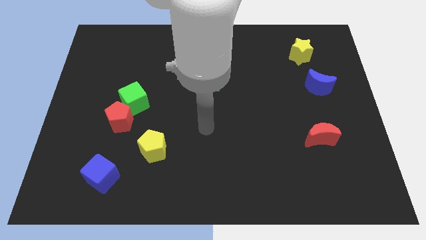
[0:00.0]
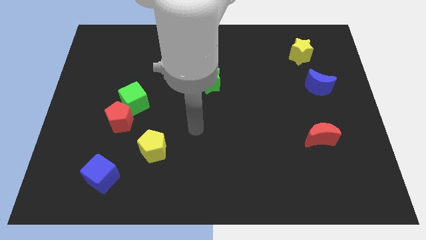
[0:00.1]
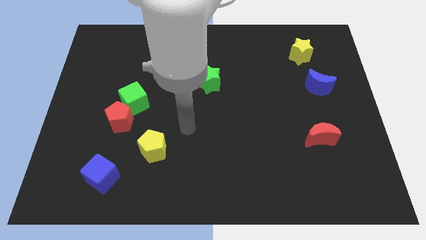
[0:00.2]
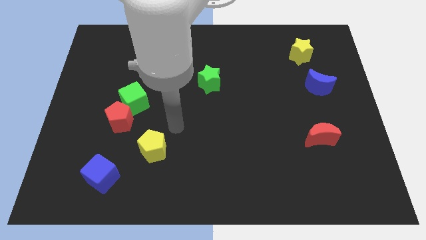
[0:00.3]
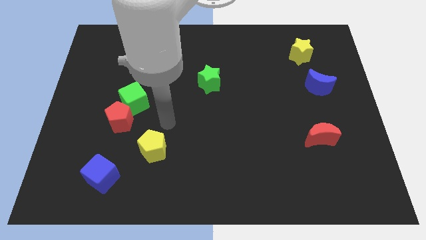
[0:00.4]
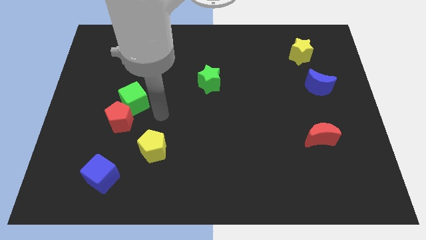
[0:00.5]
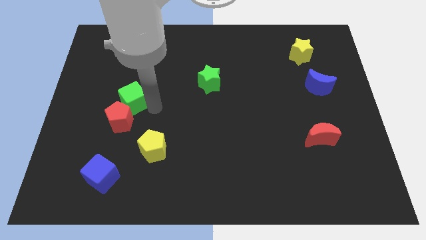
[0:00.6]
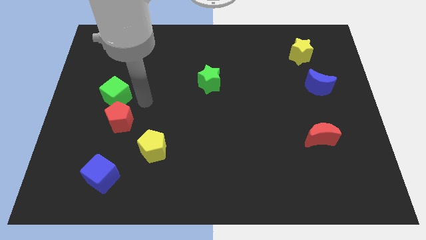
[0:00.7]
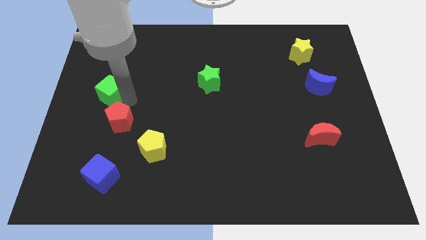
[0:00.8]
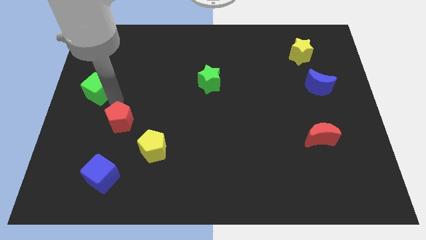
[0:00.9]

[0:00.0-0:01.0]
pull the red pentagon apart from the green cube

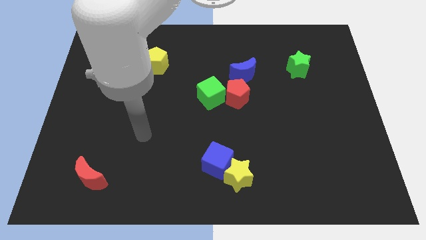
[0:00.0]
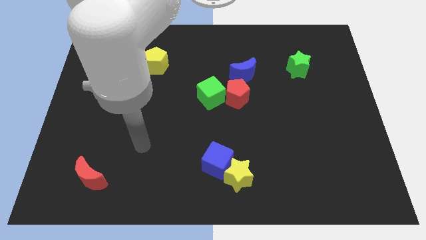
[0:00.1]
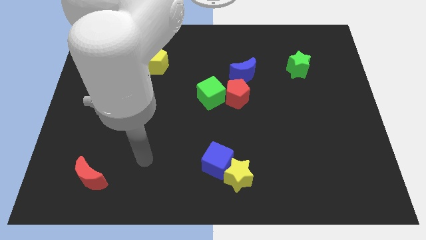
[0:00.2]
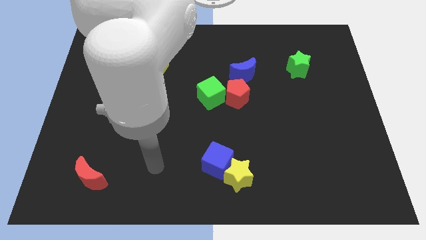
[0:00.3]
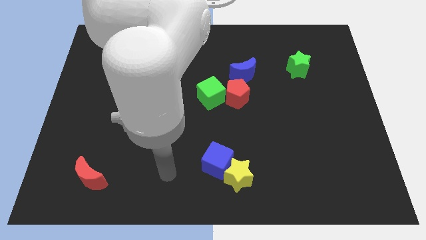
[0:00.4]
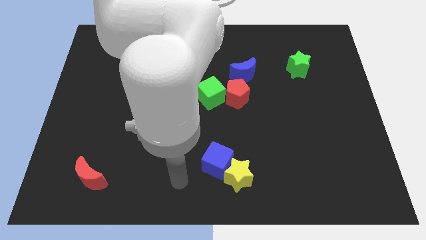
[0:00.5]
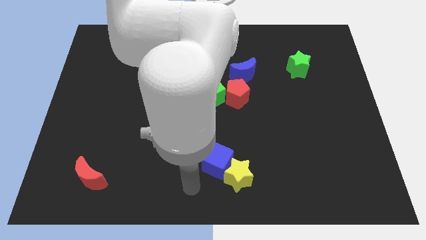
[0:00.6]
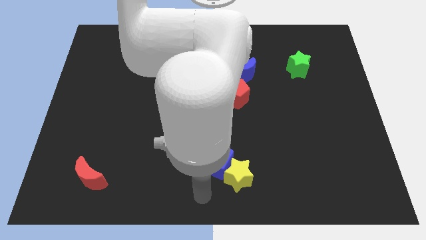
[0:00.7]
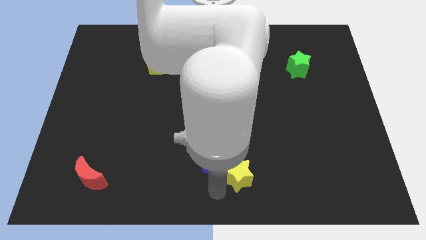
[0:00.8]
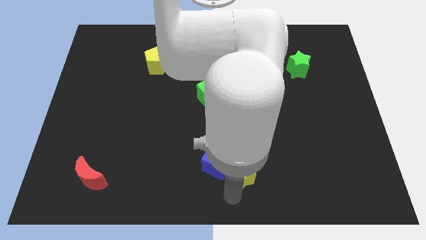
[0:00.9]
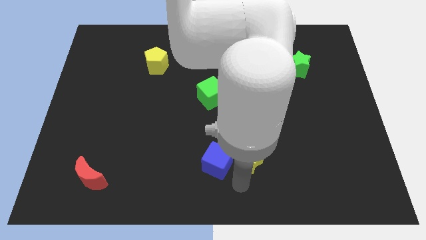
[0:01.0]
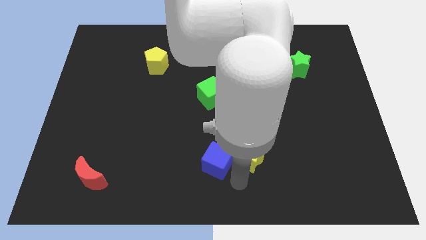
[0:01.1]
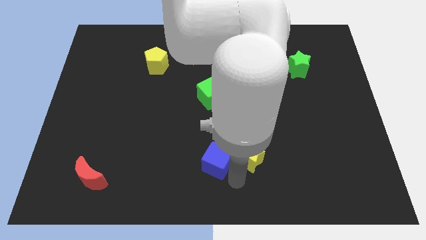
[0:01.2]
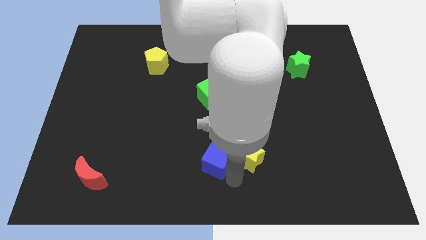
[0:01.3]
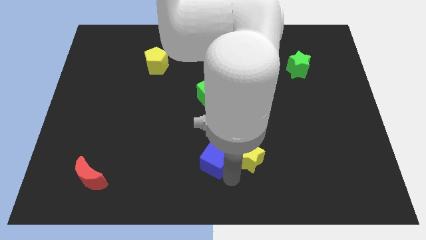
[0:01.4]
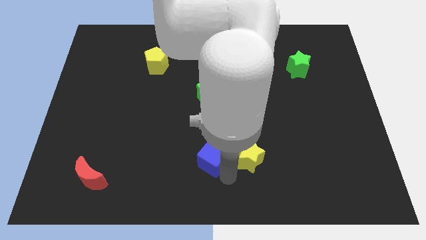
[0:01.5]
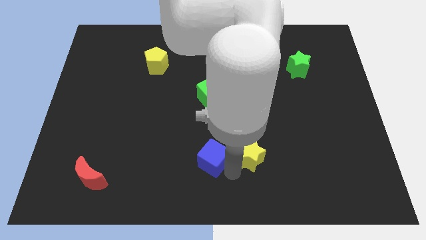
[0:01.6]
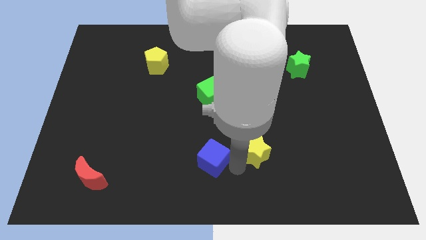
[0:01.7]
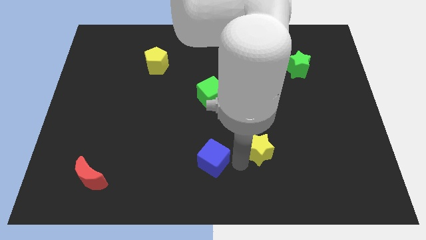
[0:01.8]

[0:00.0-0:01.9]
move the blue cube away from the yellow star

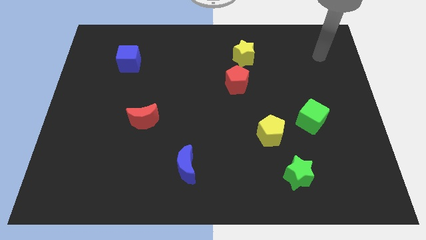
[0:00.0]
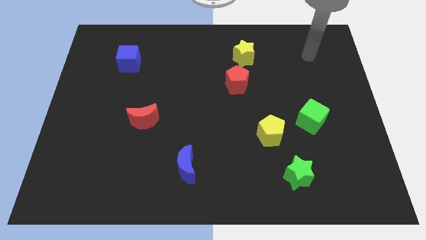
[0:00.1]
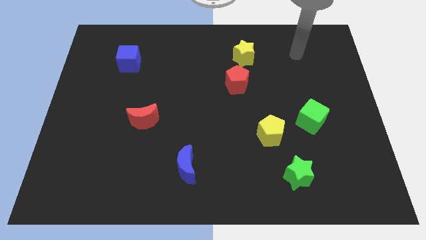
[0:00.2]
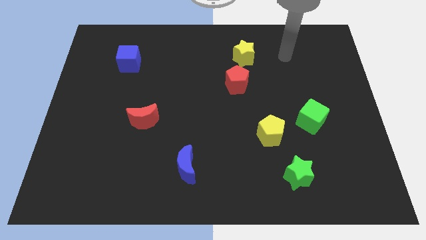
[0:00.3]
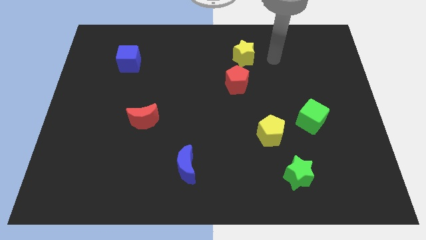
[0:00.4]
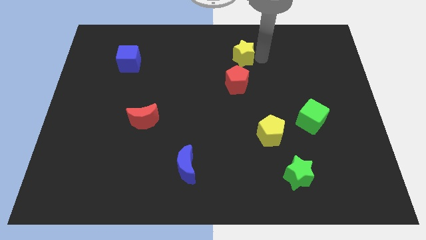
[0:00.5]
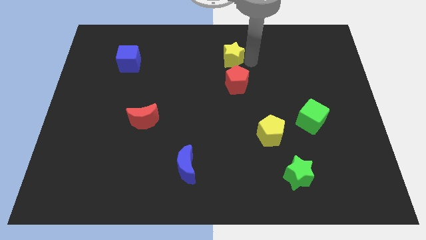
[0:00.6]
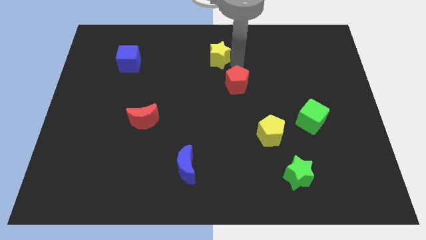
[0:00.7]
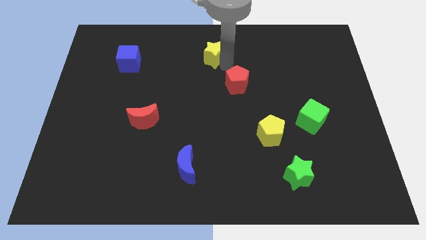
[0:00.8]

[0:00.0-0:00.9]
pull the red pentagon apart from the yellow star

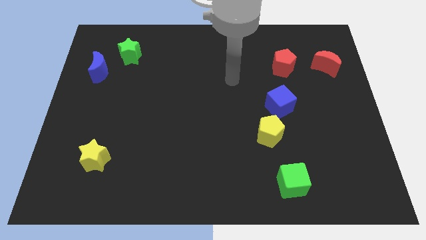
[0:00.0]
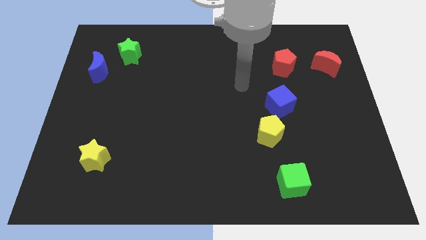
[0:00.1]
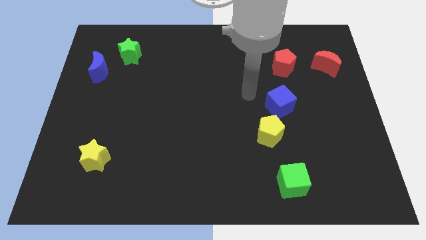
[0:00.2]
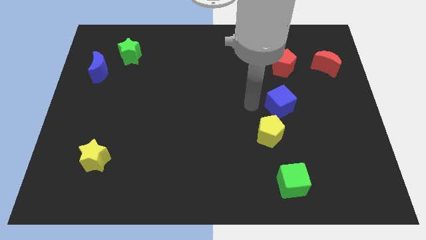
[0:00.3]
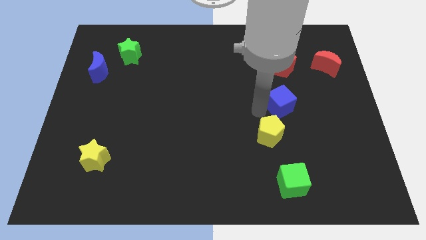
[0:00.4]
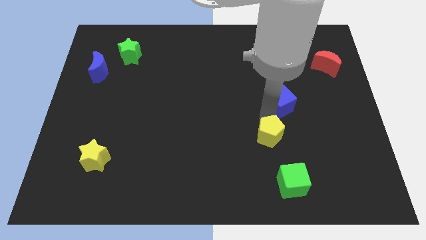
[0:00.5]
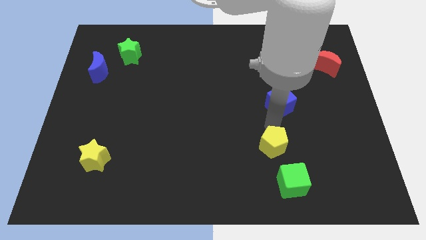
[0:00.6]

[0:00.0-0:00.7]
pull the blue cube apart from the yellow pentagon

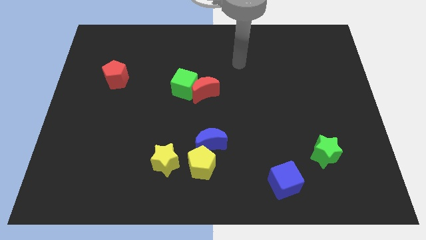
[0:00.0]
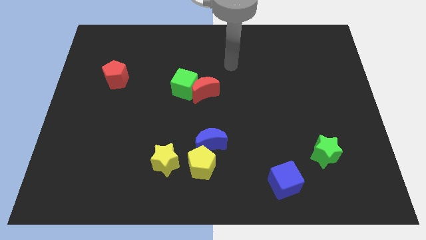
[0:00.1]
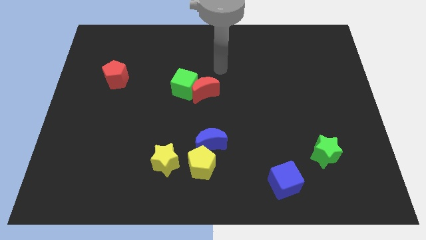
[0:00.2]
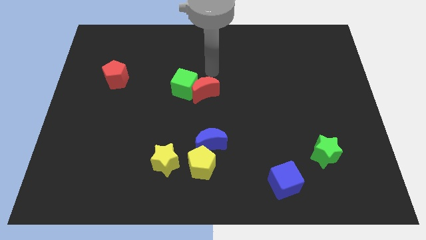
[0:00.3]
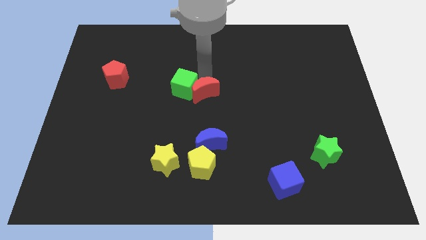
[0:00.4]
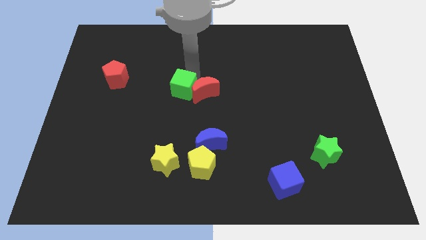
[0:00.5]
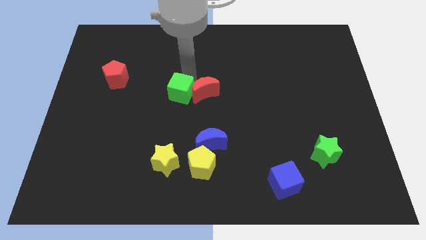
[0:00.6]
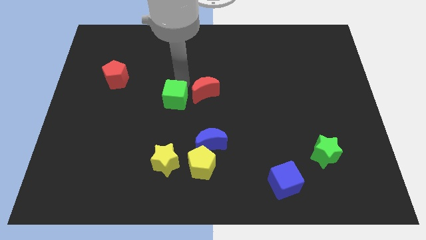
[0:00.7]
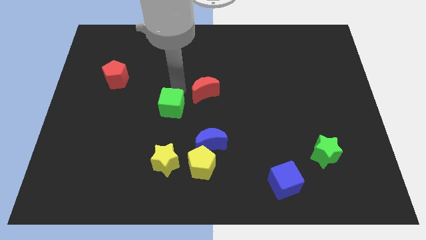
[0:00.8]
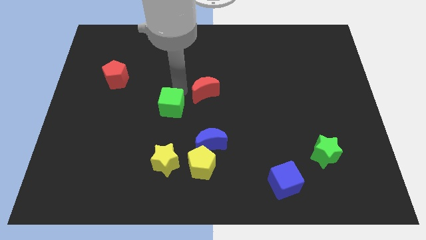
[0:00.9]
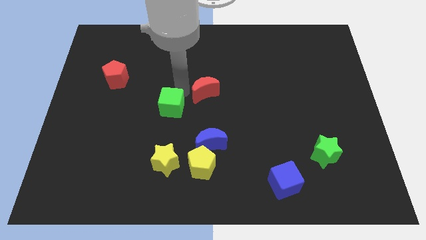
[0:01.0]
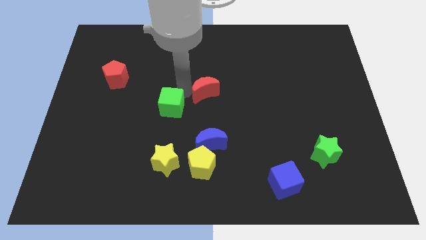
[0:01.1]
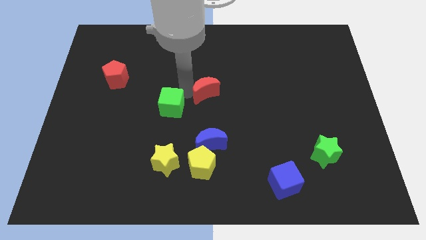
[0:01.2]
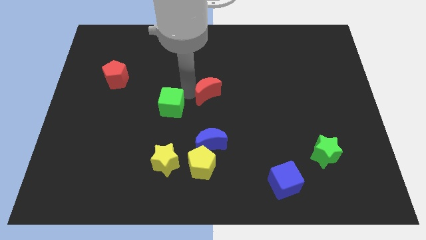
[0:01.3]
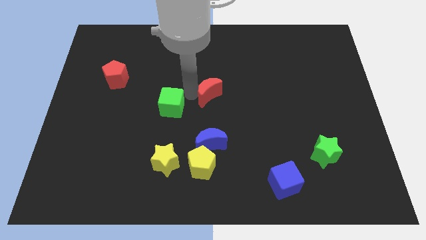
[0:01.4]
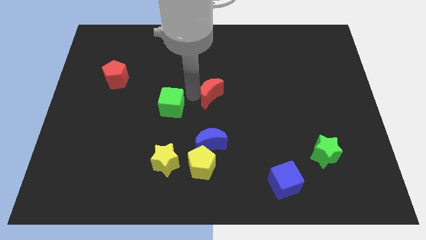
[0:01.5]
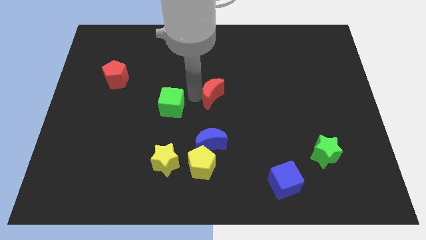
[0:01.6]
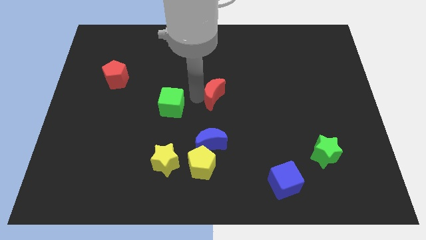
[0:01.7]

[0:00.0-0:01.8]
move the red moon away from the green cube

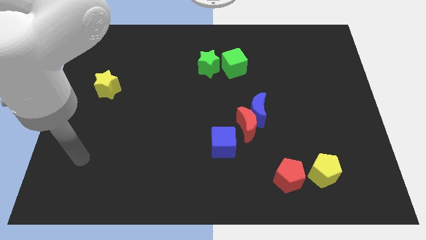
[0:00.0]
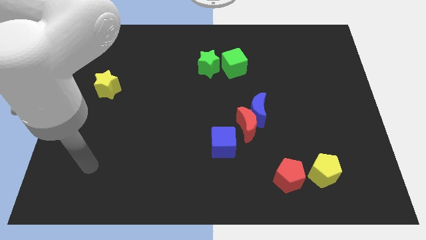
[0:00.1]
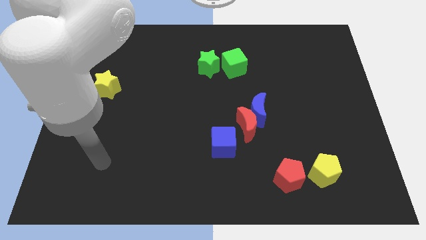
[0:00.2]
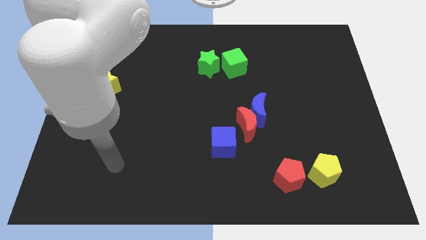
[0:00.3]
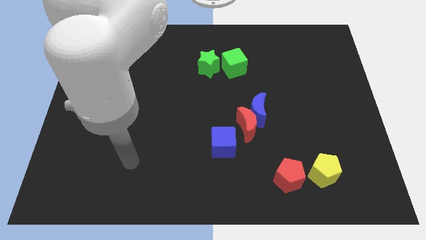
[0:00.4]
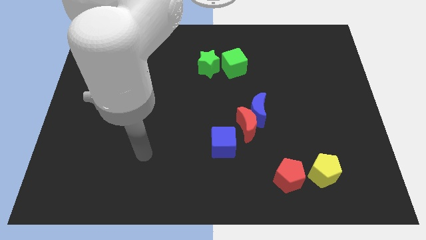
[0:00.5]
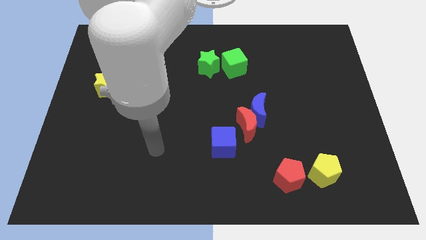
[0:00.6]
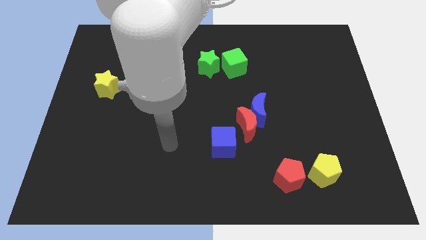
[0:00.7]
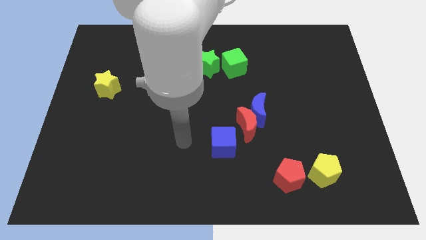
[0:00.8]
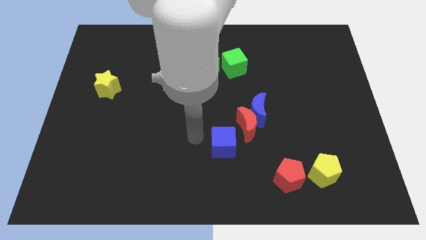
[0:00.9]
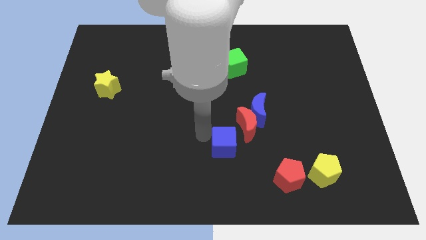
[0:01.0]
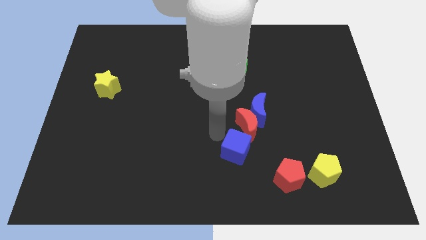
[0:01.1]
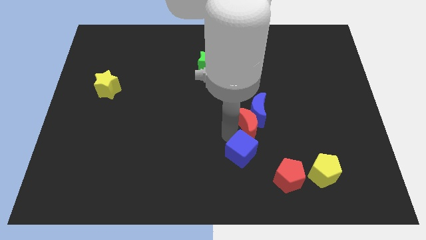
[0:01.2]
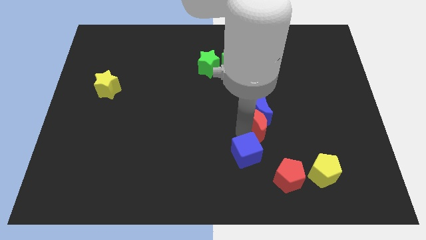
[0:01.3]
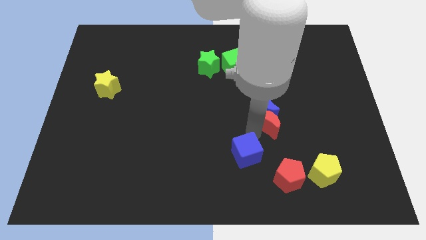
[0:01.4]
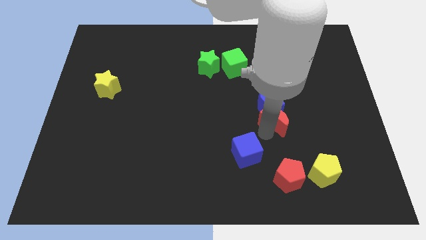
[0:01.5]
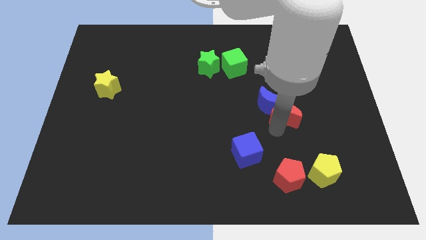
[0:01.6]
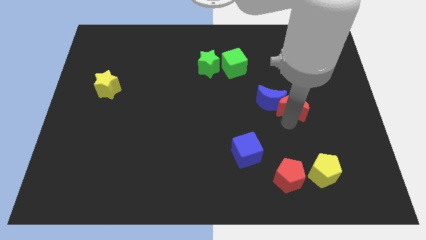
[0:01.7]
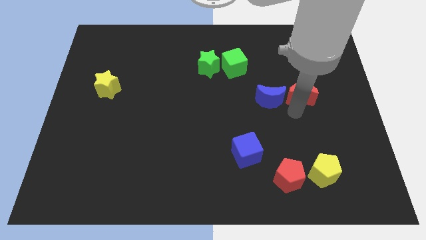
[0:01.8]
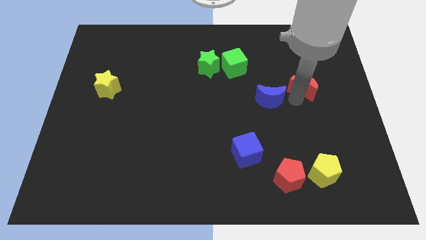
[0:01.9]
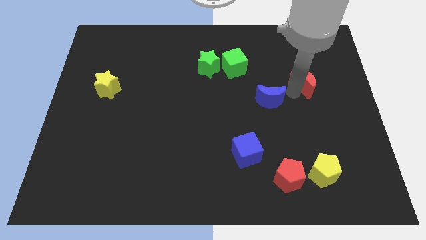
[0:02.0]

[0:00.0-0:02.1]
move the blue moon away from the red moon

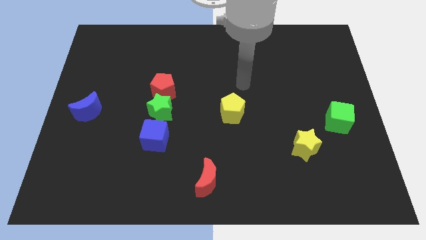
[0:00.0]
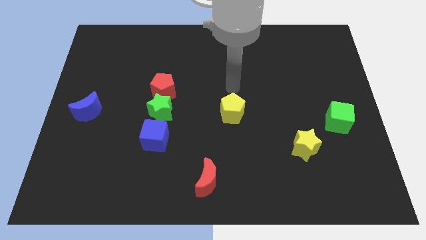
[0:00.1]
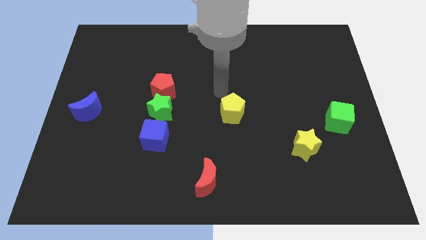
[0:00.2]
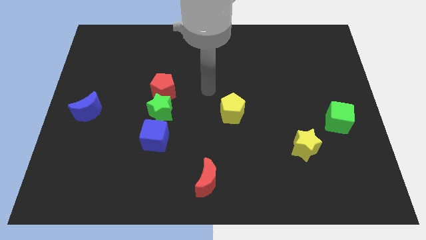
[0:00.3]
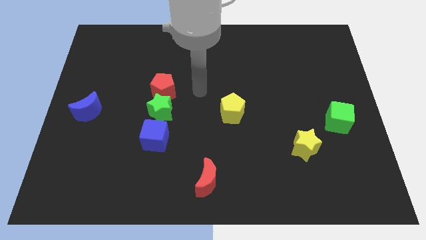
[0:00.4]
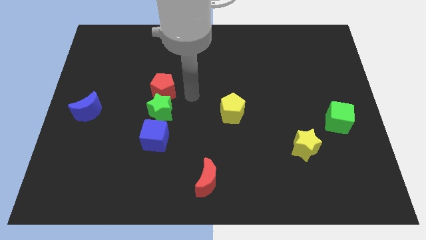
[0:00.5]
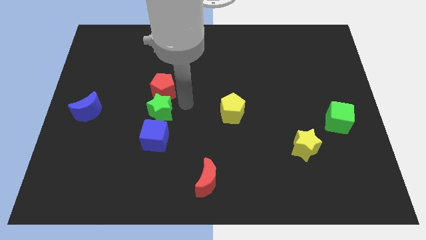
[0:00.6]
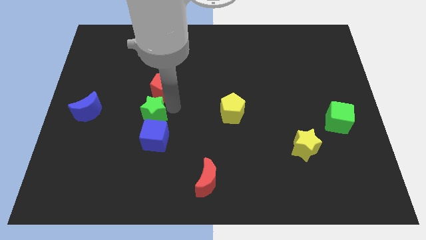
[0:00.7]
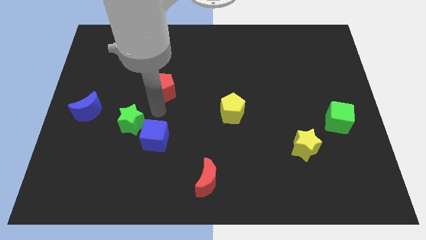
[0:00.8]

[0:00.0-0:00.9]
pull the red pentagon apart from the green star
